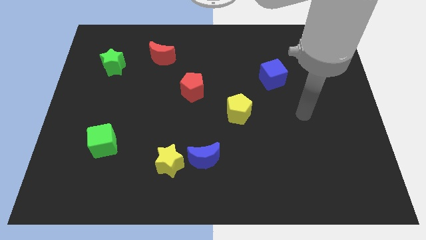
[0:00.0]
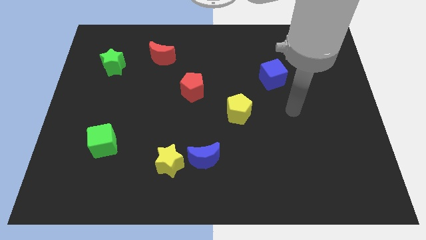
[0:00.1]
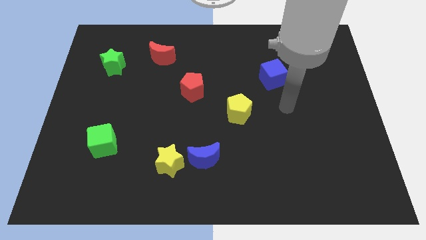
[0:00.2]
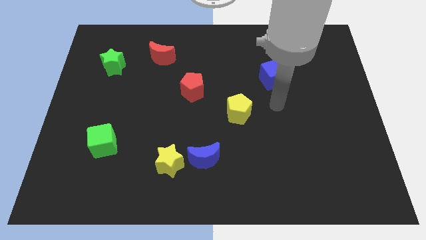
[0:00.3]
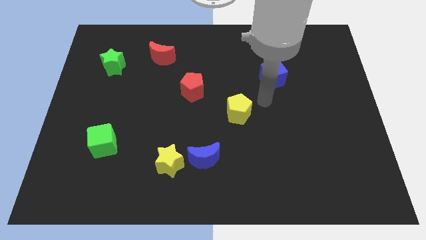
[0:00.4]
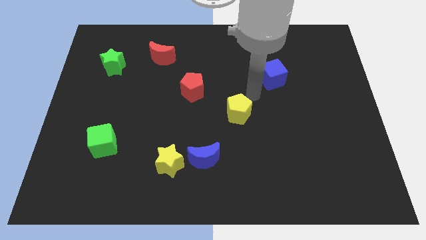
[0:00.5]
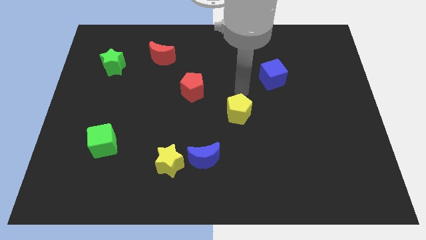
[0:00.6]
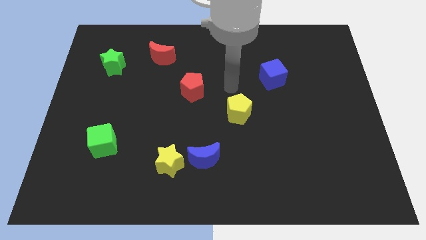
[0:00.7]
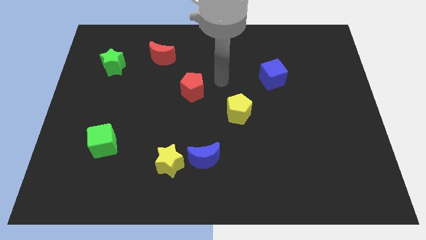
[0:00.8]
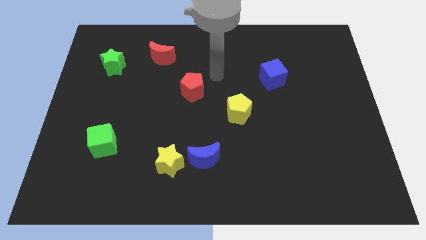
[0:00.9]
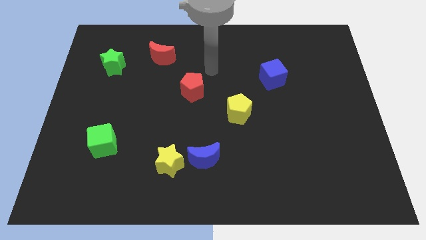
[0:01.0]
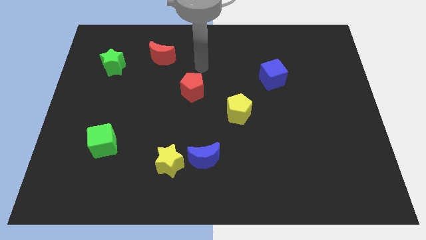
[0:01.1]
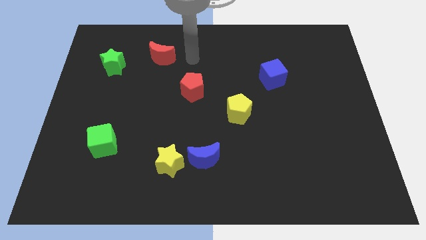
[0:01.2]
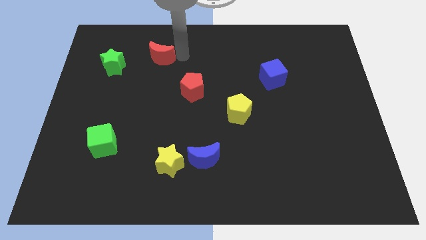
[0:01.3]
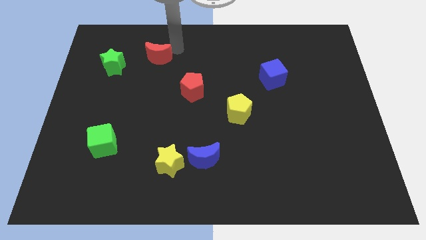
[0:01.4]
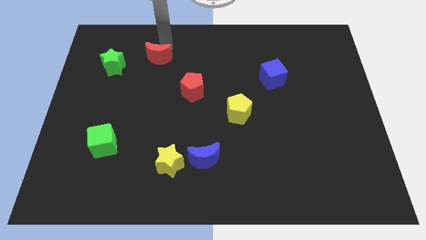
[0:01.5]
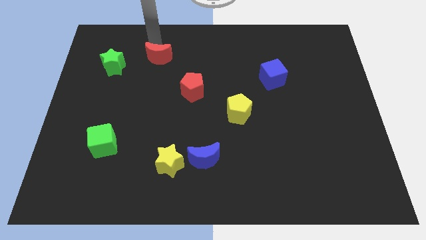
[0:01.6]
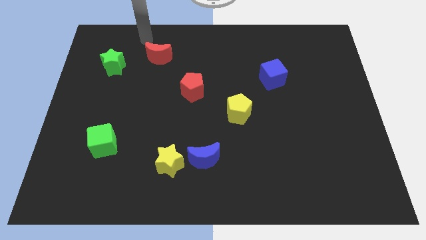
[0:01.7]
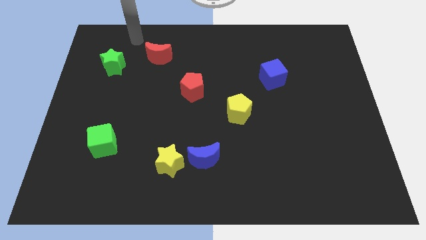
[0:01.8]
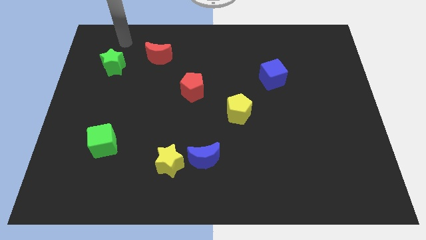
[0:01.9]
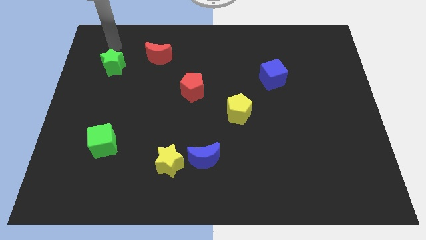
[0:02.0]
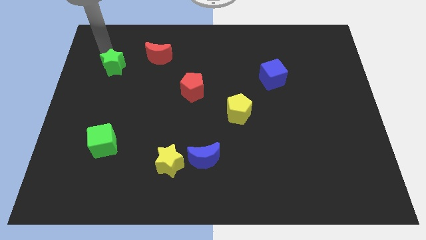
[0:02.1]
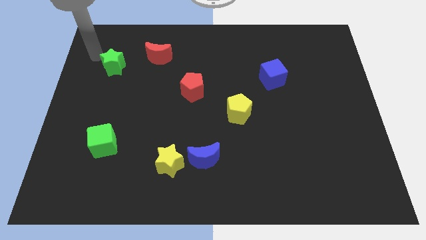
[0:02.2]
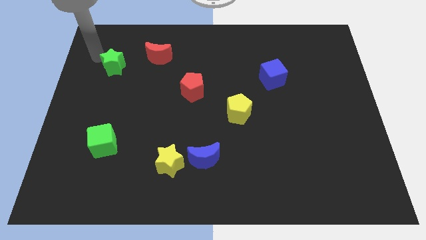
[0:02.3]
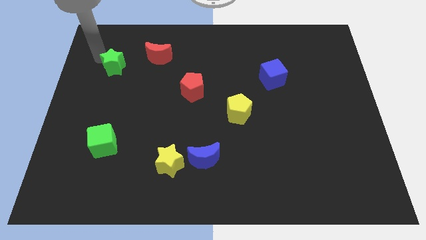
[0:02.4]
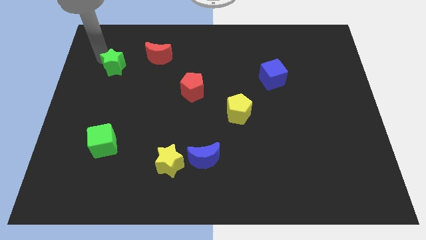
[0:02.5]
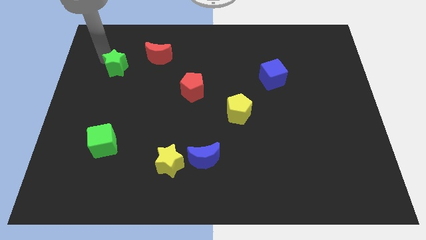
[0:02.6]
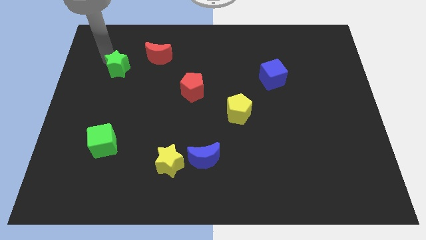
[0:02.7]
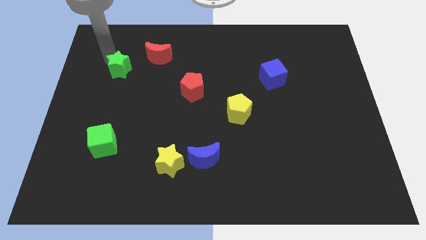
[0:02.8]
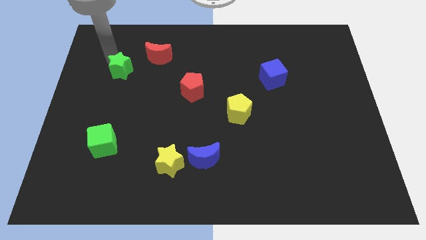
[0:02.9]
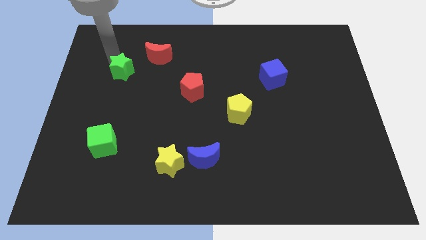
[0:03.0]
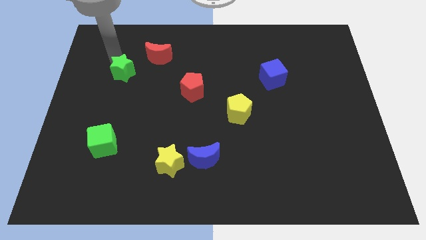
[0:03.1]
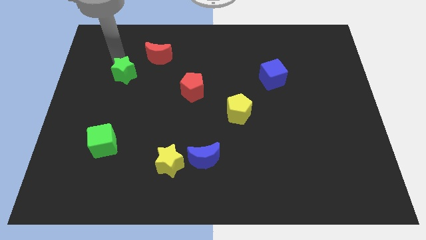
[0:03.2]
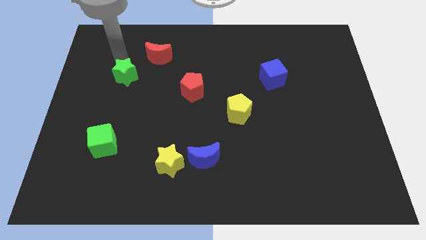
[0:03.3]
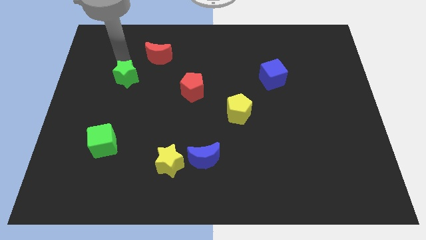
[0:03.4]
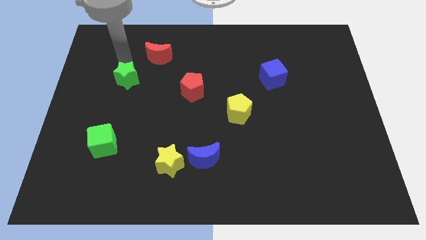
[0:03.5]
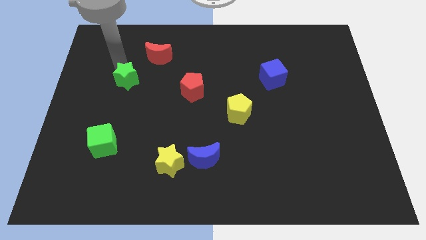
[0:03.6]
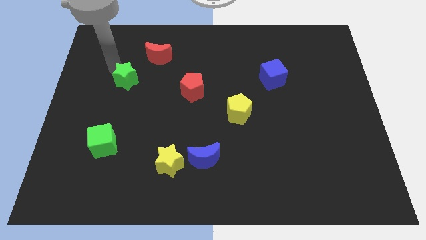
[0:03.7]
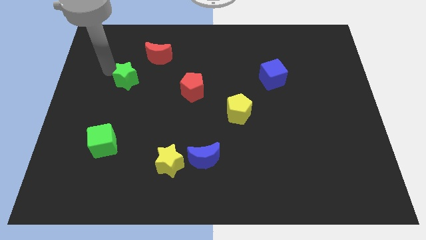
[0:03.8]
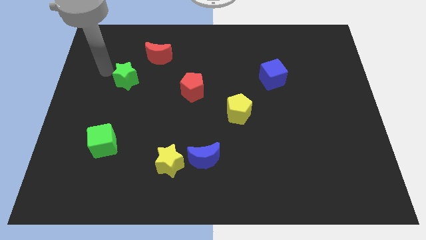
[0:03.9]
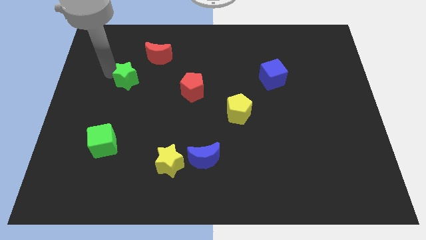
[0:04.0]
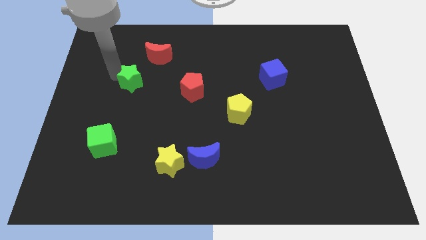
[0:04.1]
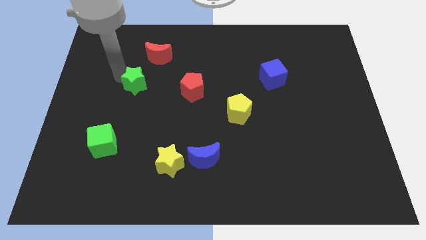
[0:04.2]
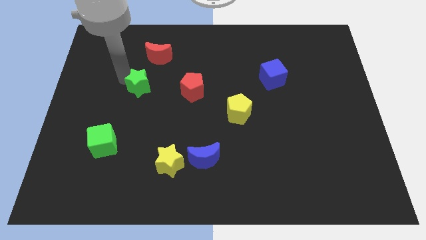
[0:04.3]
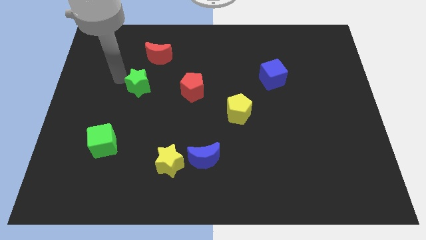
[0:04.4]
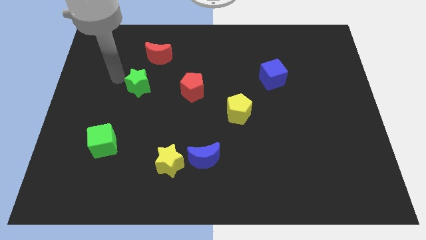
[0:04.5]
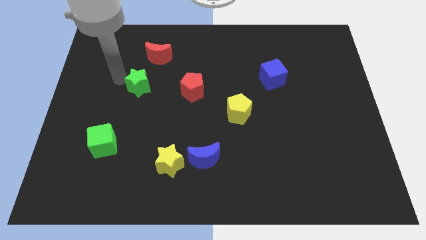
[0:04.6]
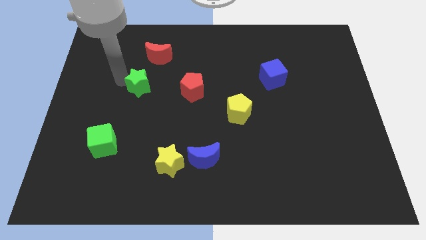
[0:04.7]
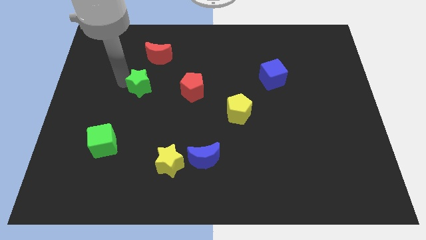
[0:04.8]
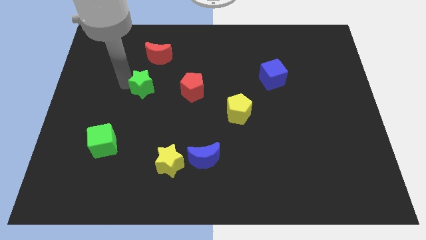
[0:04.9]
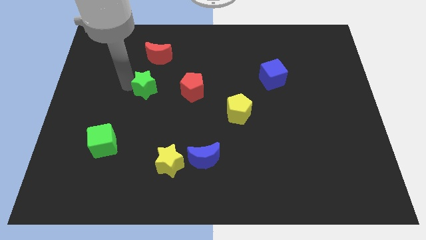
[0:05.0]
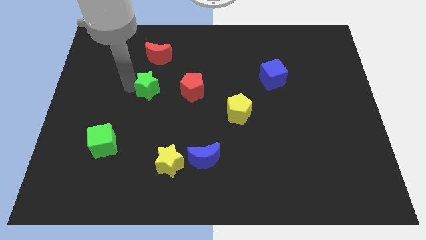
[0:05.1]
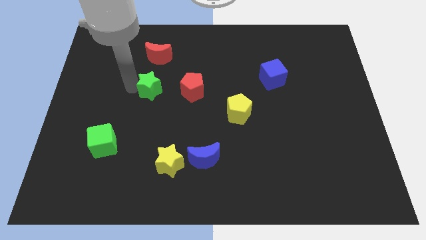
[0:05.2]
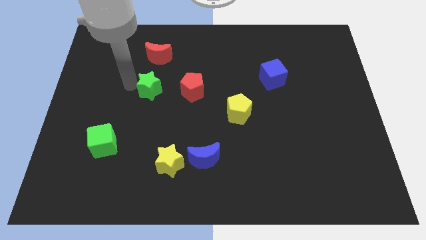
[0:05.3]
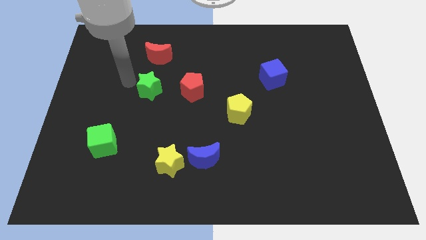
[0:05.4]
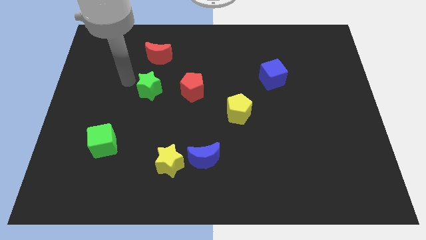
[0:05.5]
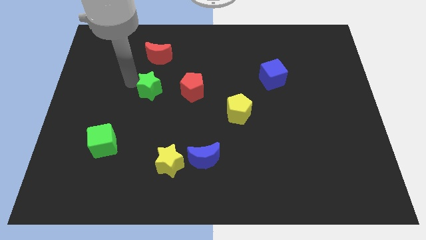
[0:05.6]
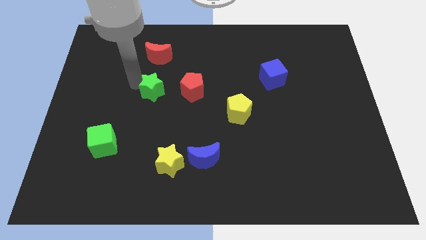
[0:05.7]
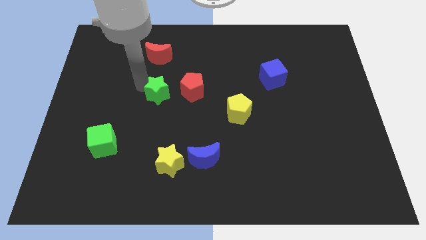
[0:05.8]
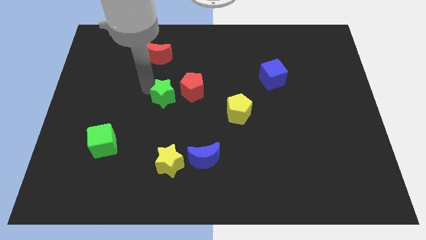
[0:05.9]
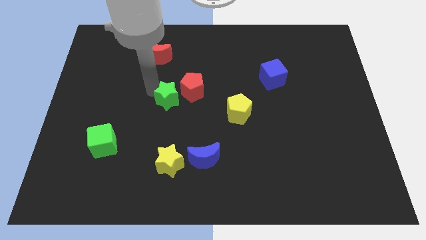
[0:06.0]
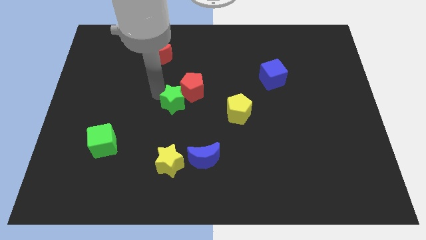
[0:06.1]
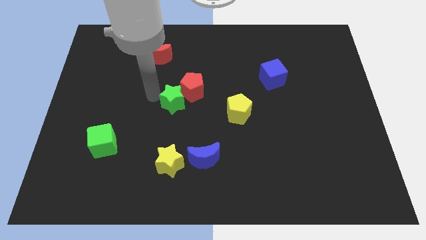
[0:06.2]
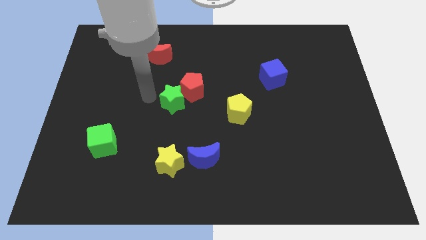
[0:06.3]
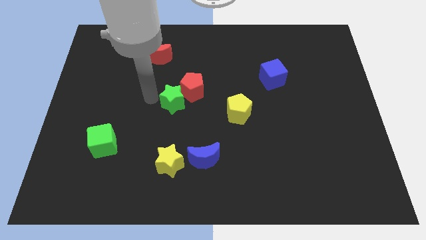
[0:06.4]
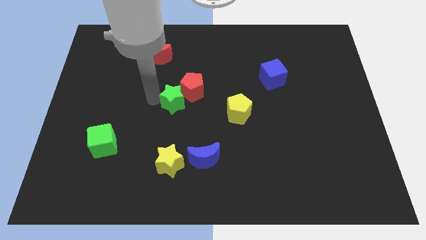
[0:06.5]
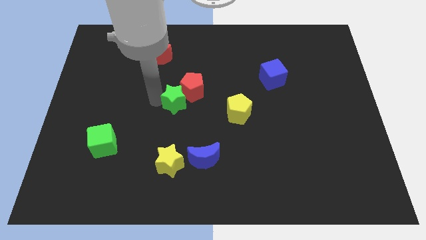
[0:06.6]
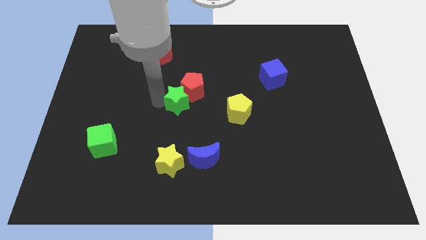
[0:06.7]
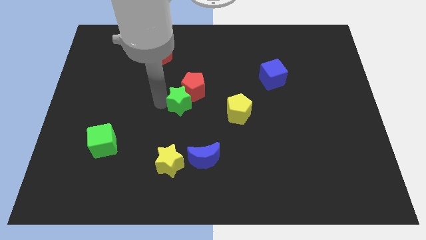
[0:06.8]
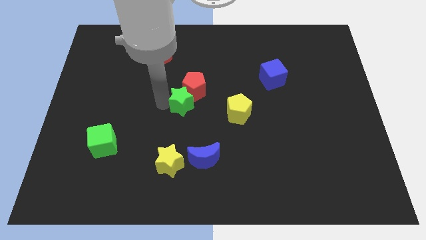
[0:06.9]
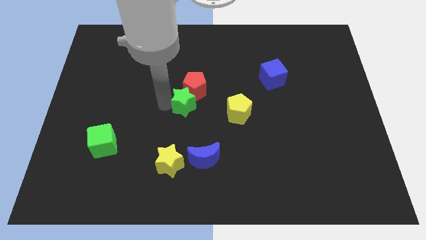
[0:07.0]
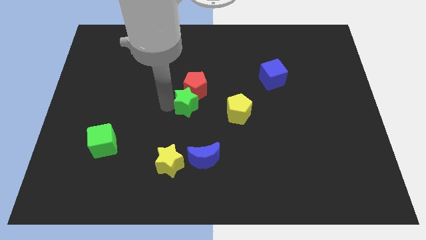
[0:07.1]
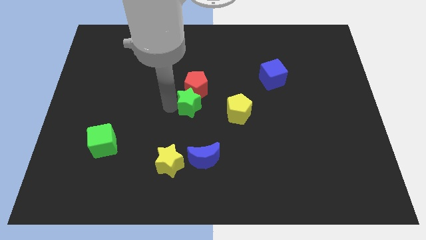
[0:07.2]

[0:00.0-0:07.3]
slide the green star diagonally down and to the right of the red pentagon
